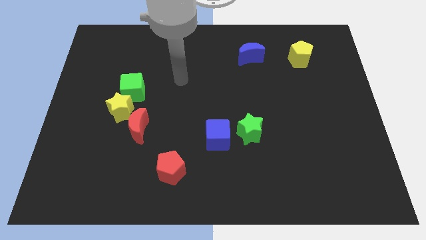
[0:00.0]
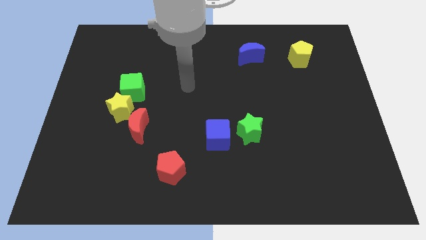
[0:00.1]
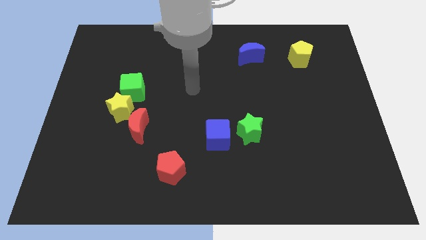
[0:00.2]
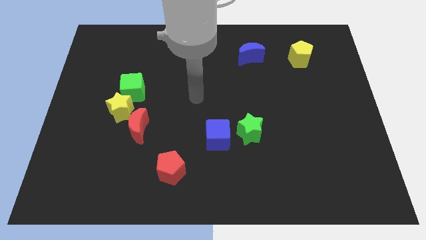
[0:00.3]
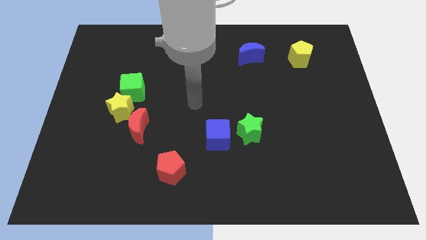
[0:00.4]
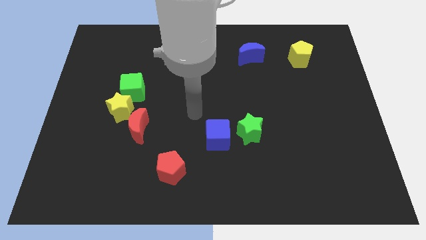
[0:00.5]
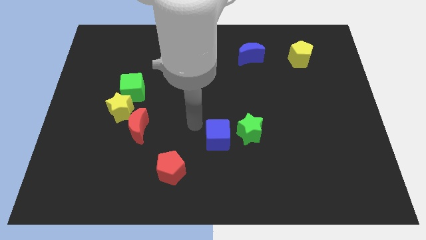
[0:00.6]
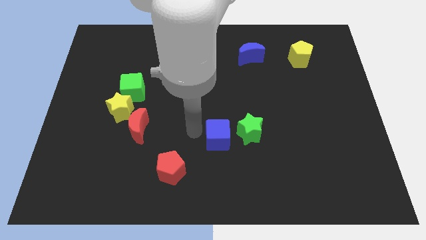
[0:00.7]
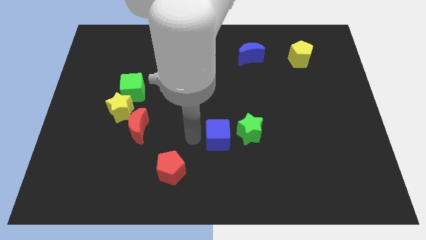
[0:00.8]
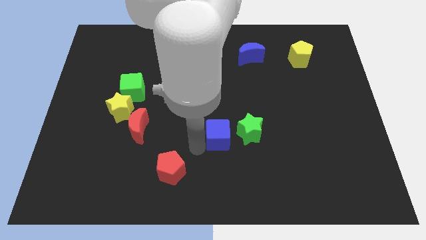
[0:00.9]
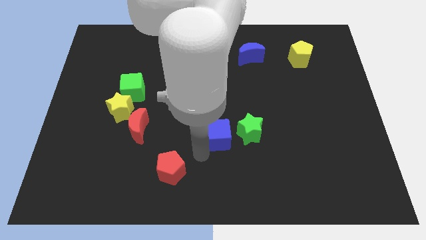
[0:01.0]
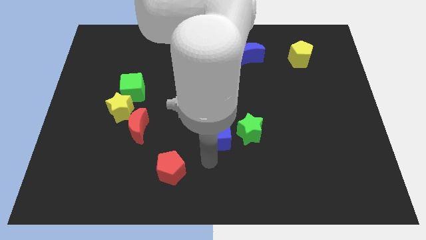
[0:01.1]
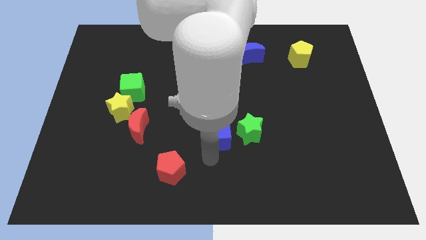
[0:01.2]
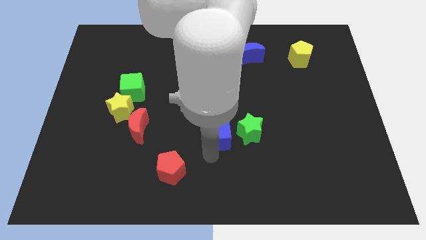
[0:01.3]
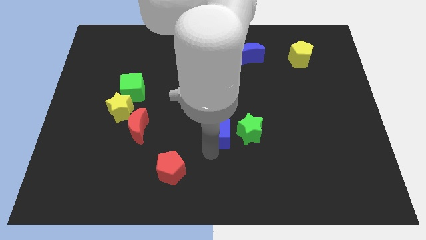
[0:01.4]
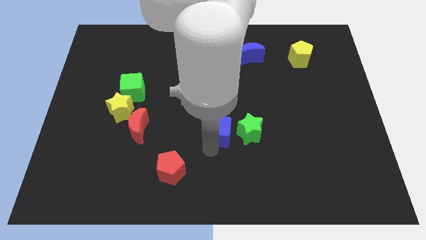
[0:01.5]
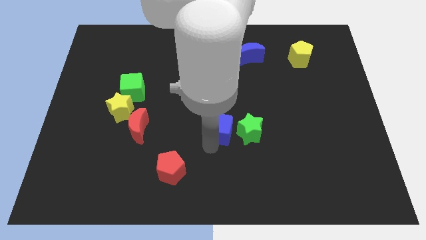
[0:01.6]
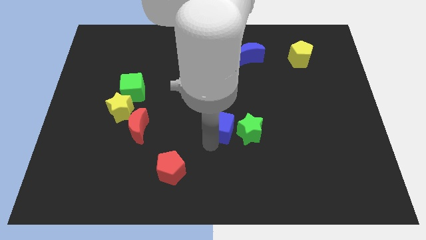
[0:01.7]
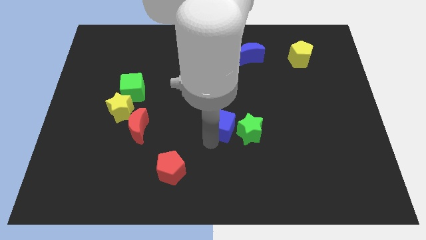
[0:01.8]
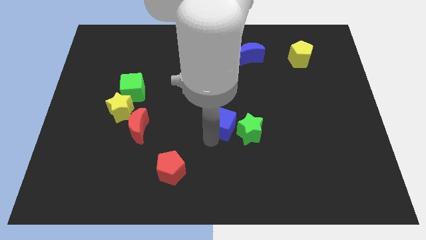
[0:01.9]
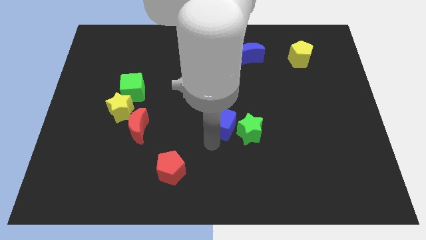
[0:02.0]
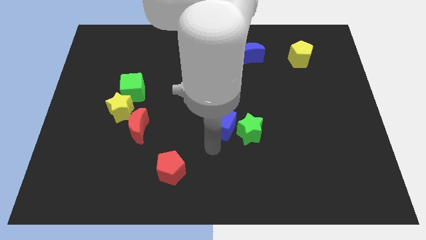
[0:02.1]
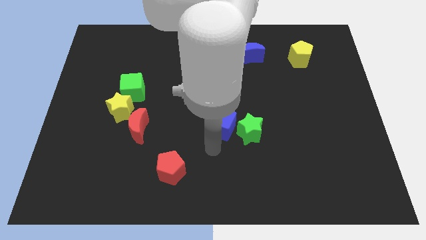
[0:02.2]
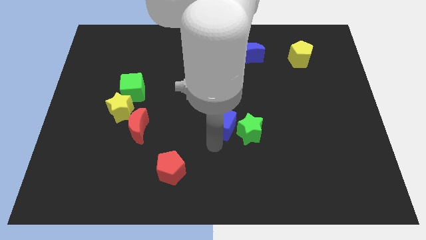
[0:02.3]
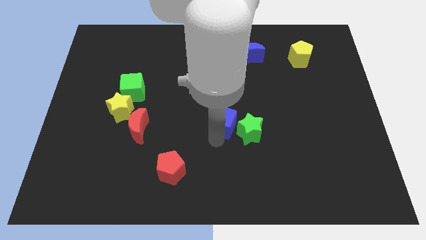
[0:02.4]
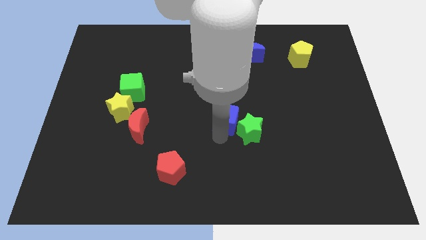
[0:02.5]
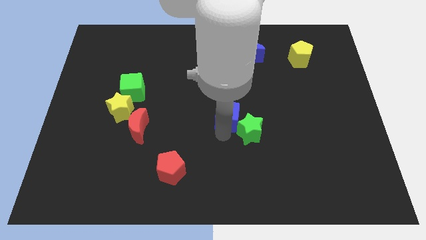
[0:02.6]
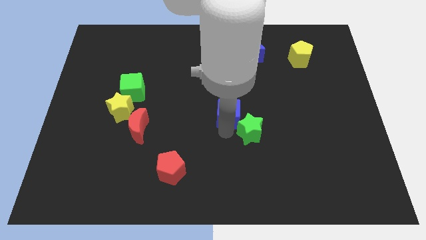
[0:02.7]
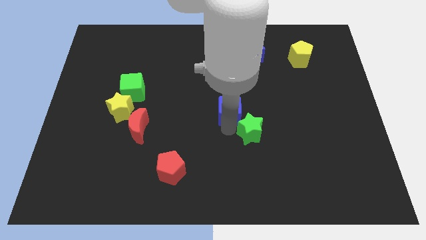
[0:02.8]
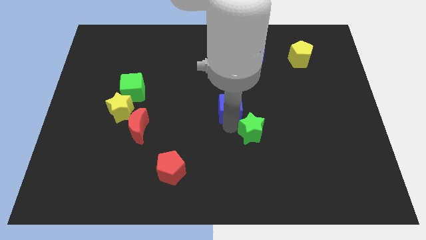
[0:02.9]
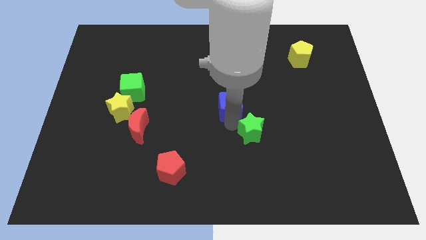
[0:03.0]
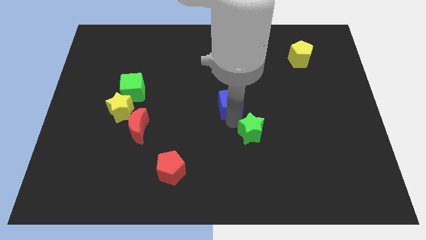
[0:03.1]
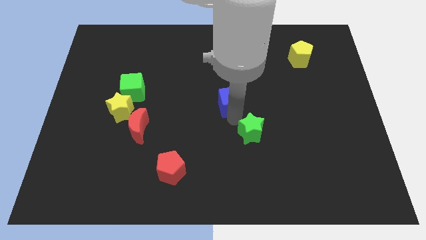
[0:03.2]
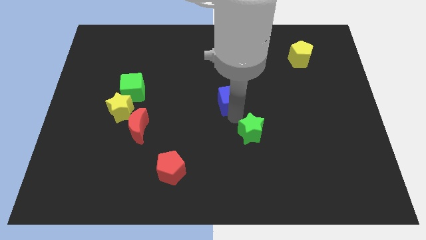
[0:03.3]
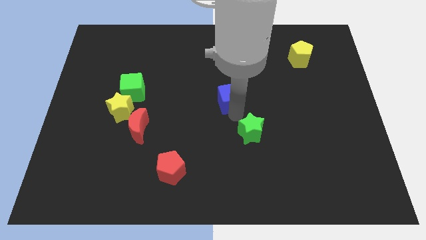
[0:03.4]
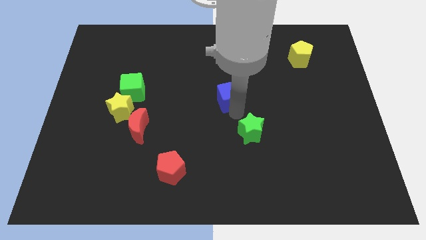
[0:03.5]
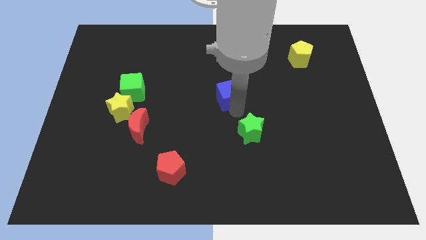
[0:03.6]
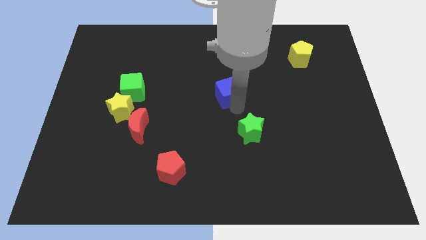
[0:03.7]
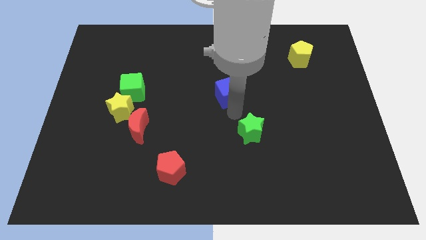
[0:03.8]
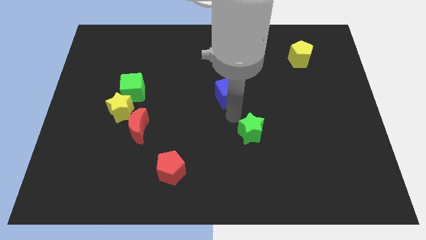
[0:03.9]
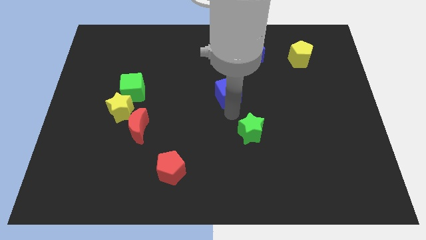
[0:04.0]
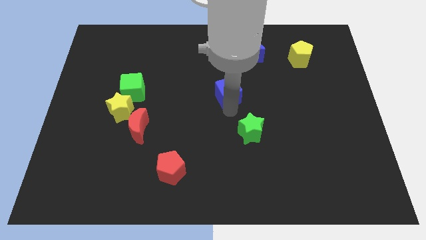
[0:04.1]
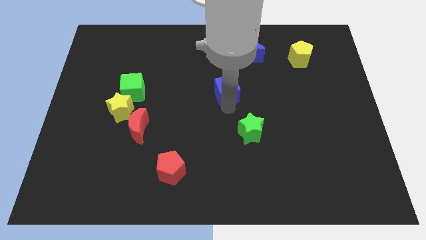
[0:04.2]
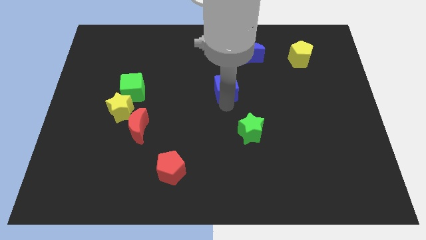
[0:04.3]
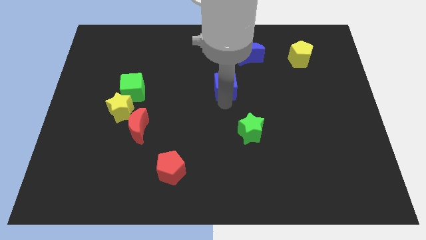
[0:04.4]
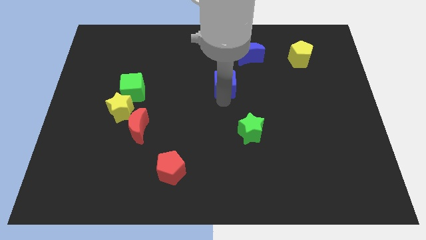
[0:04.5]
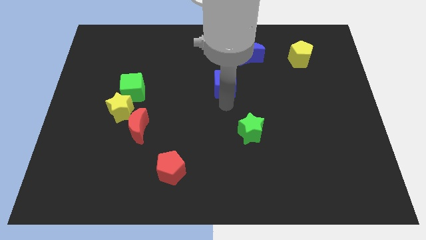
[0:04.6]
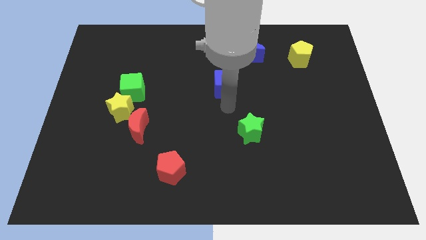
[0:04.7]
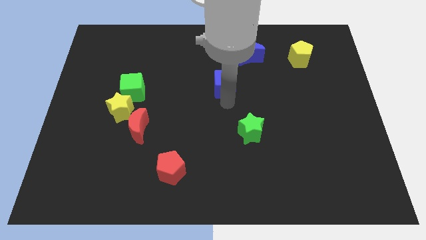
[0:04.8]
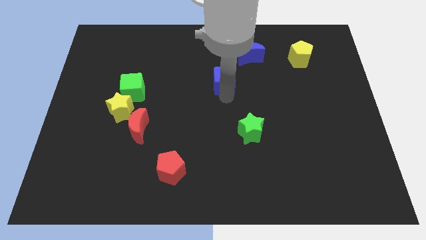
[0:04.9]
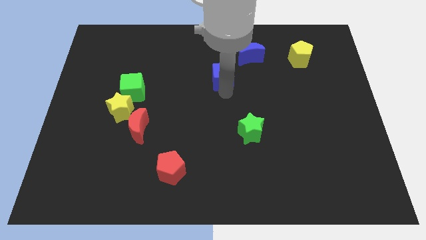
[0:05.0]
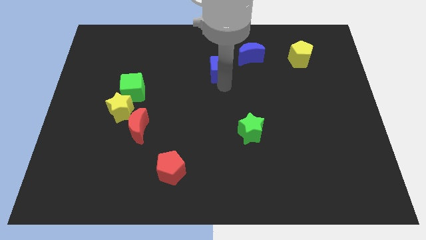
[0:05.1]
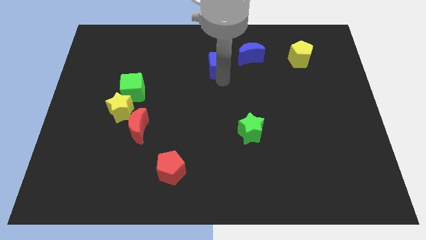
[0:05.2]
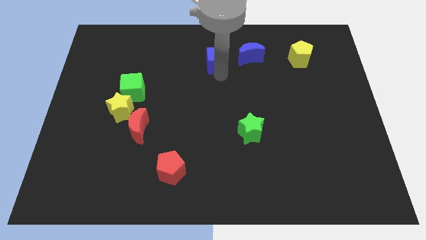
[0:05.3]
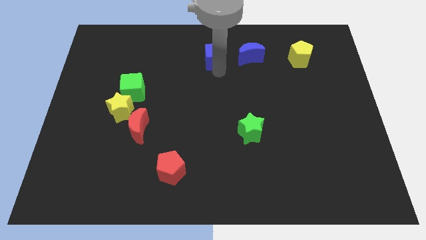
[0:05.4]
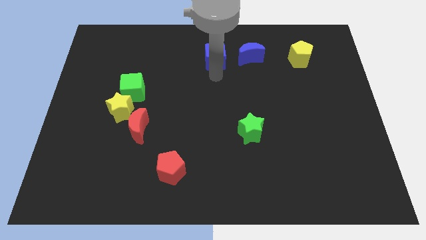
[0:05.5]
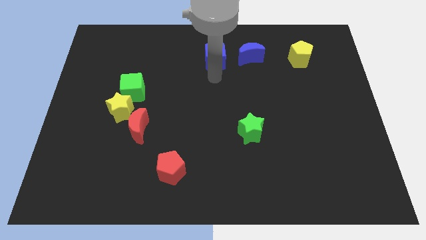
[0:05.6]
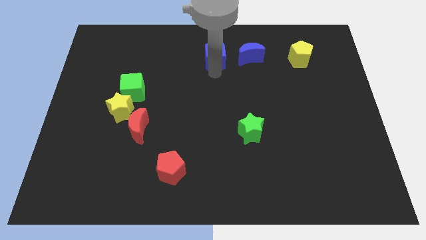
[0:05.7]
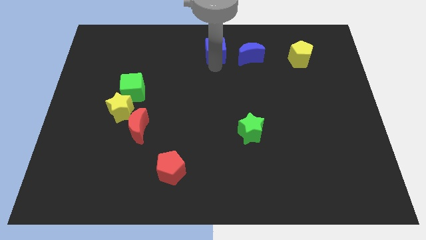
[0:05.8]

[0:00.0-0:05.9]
push the blue cube to the top

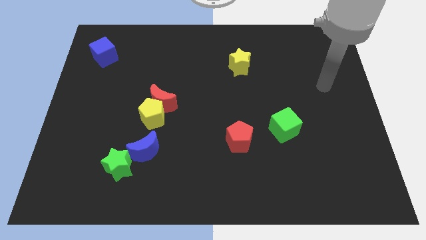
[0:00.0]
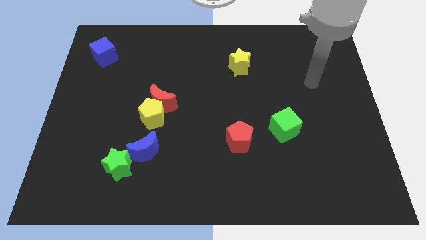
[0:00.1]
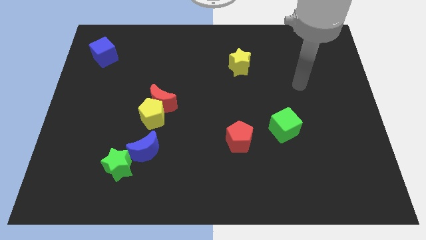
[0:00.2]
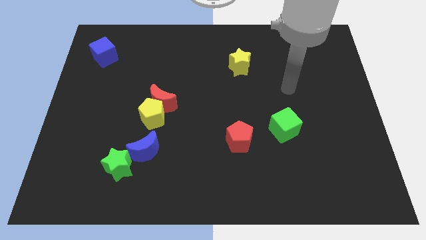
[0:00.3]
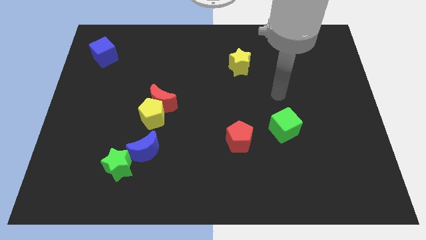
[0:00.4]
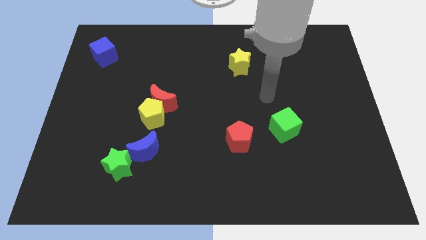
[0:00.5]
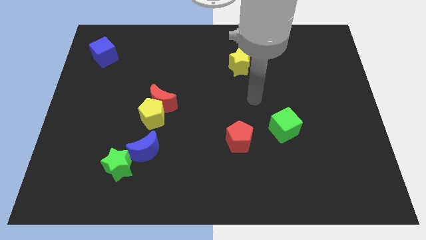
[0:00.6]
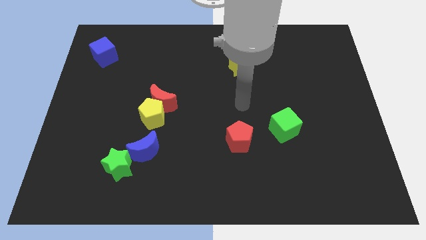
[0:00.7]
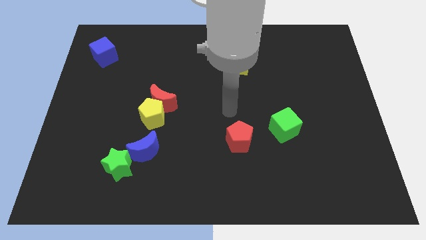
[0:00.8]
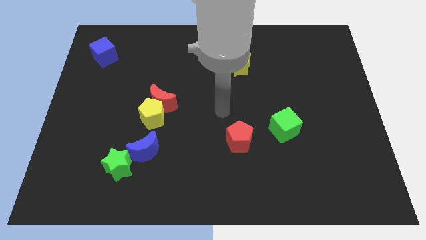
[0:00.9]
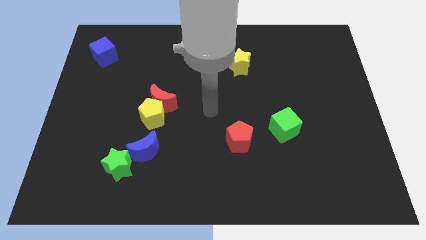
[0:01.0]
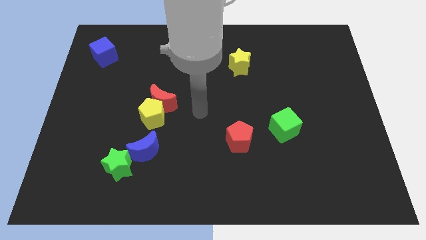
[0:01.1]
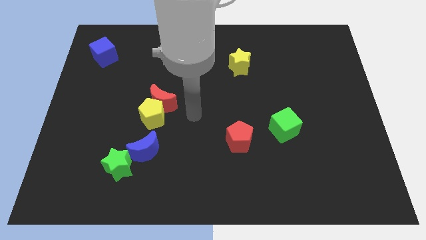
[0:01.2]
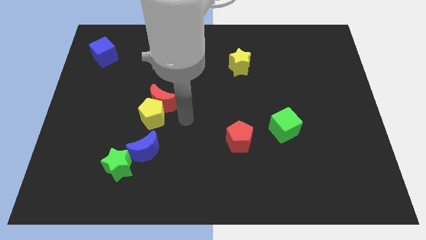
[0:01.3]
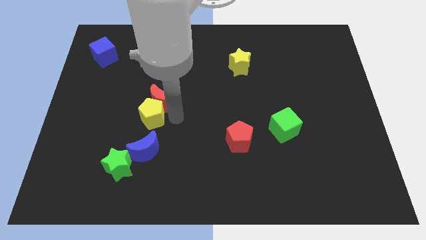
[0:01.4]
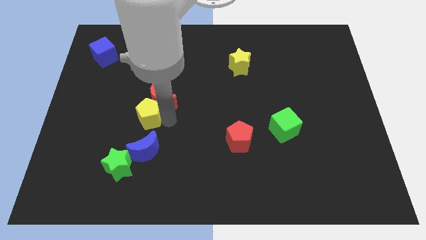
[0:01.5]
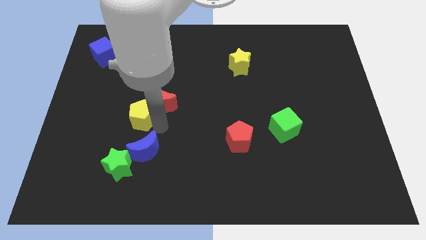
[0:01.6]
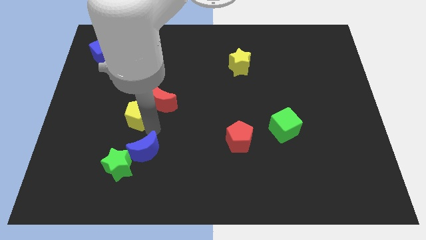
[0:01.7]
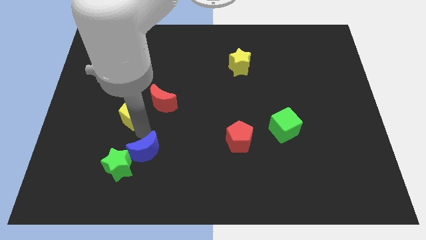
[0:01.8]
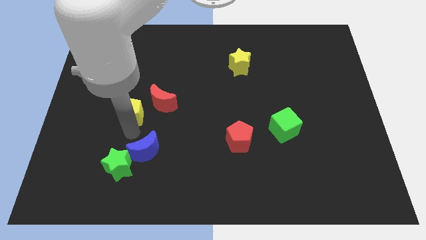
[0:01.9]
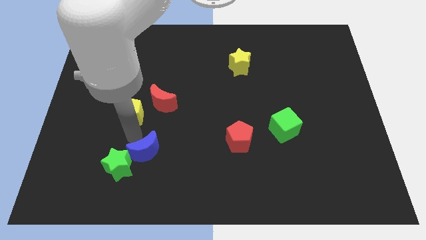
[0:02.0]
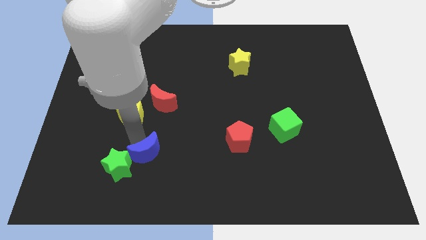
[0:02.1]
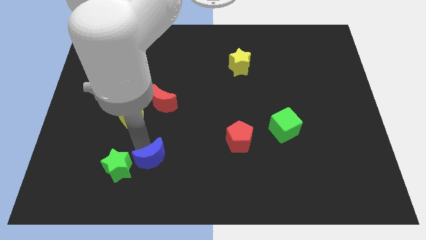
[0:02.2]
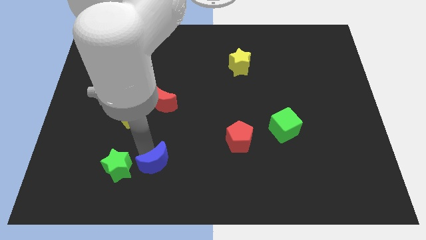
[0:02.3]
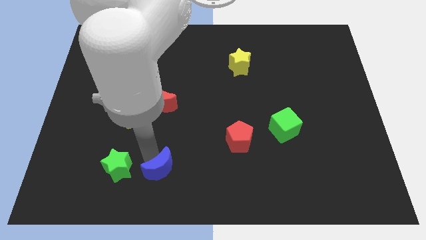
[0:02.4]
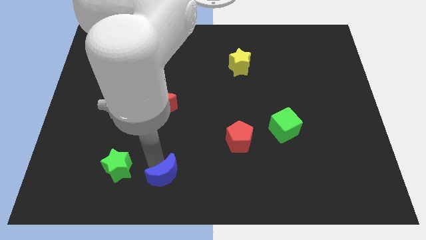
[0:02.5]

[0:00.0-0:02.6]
move the blue moon to the bottom side
